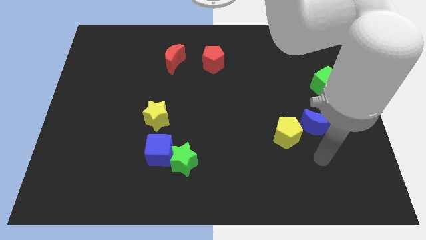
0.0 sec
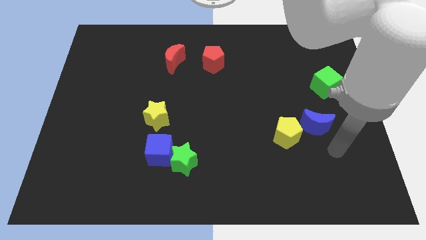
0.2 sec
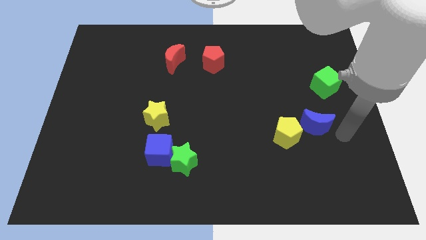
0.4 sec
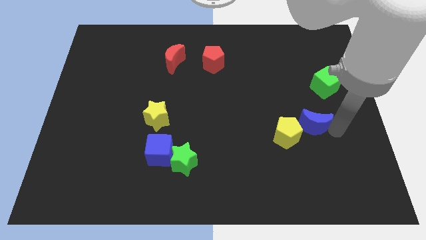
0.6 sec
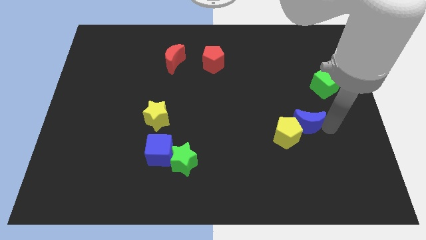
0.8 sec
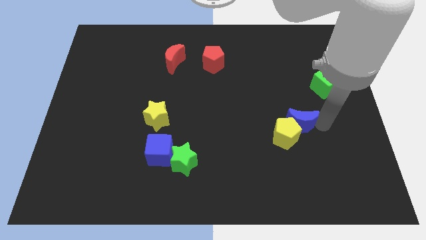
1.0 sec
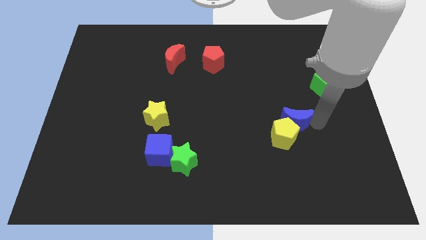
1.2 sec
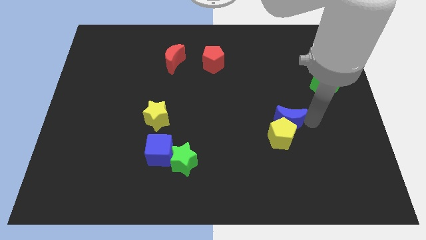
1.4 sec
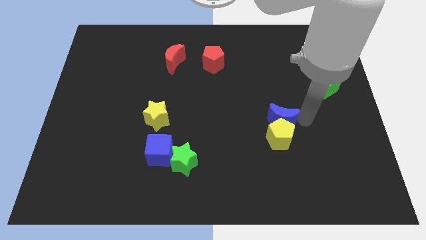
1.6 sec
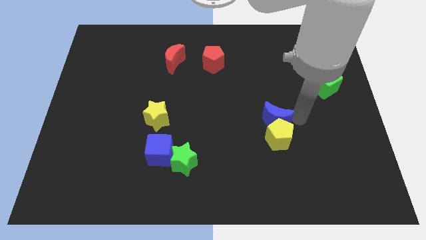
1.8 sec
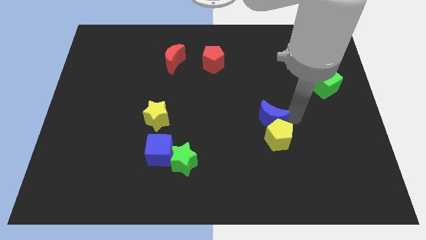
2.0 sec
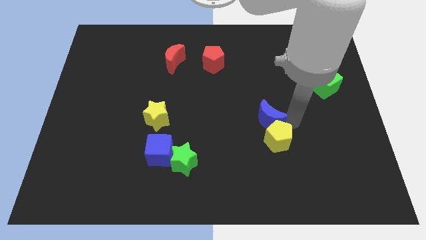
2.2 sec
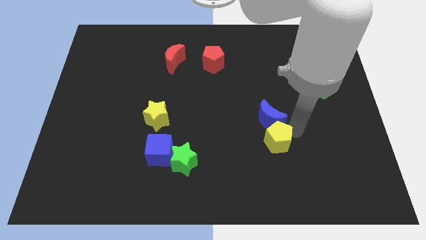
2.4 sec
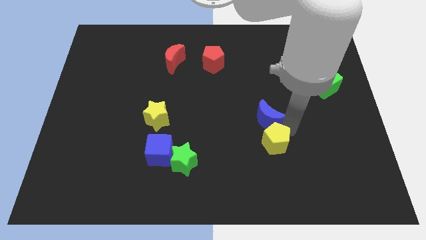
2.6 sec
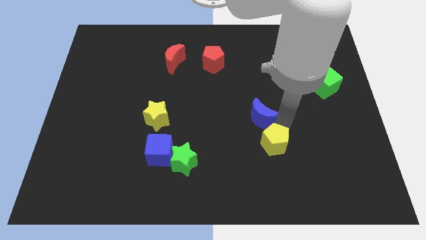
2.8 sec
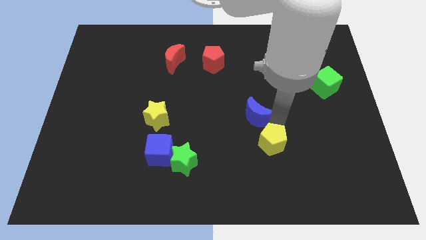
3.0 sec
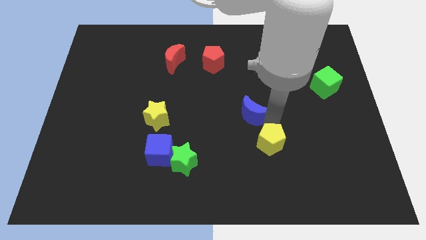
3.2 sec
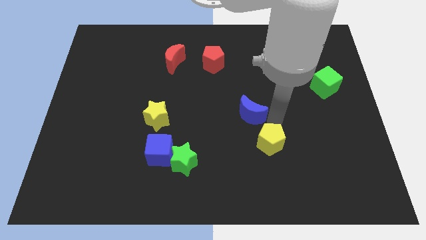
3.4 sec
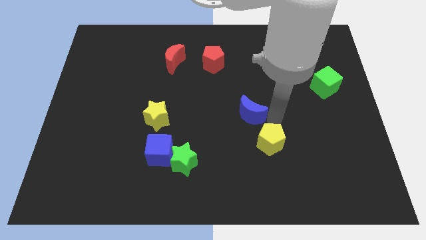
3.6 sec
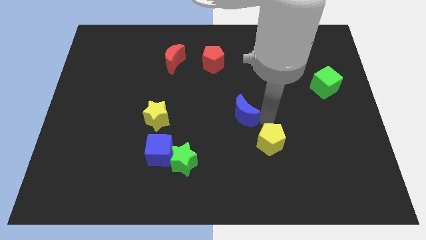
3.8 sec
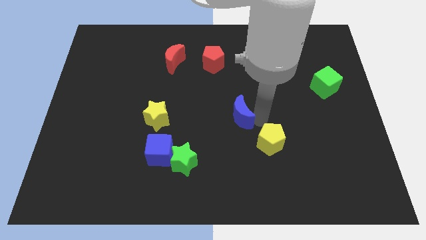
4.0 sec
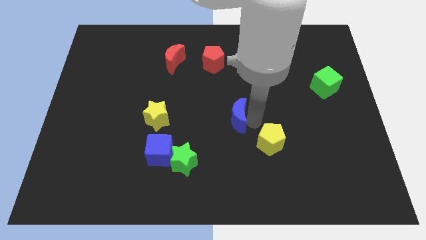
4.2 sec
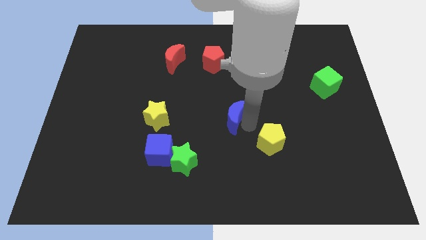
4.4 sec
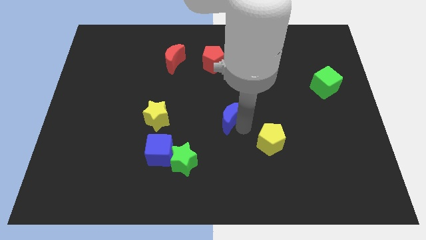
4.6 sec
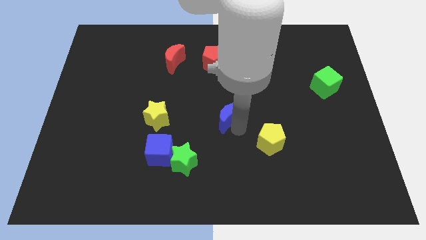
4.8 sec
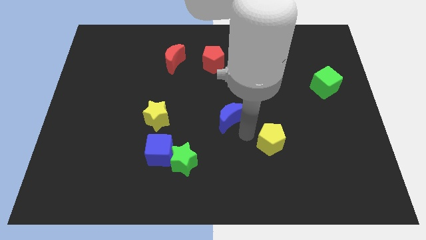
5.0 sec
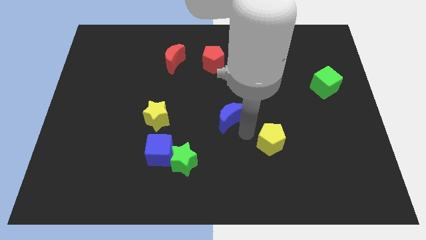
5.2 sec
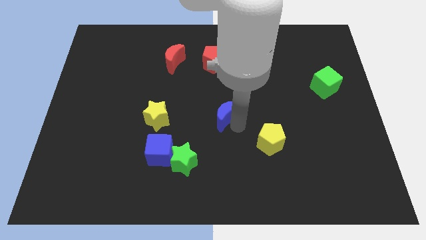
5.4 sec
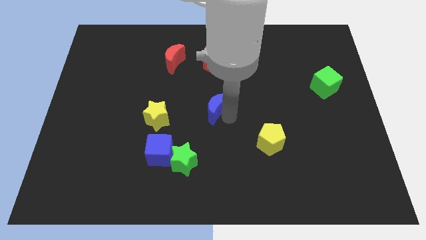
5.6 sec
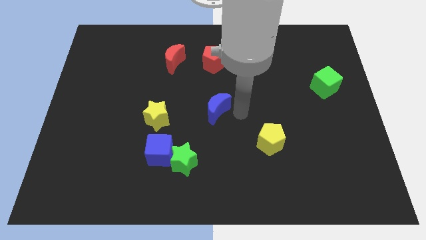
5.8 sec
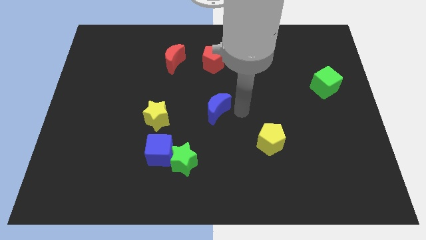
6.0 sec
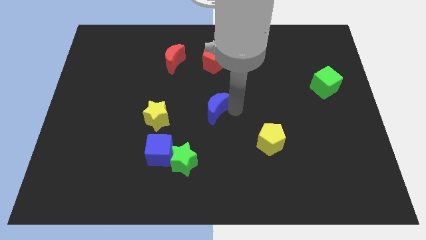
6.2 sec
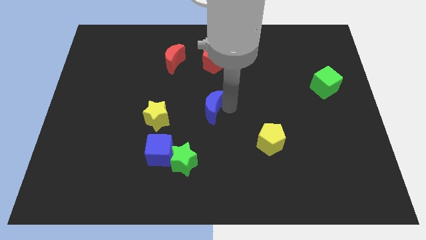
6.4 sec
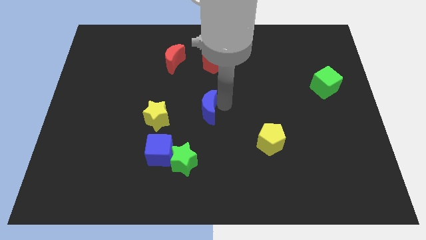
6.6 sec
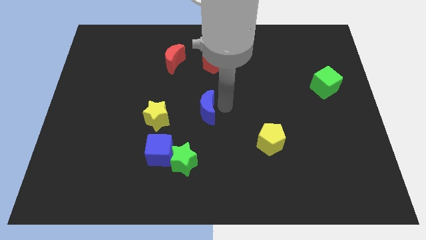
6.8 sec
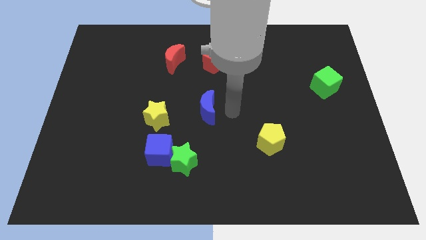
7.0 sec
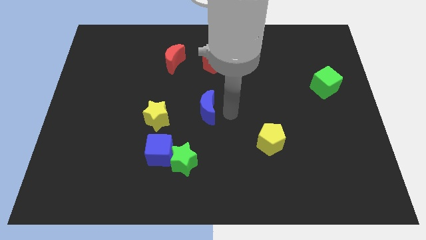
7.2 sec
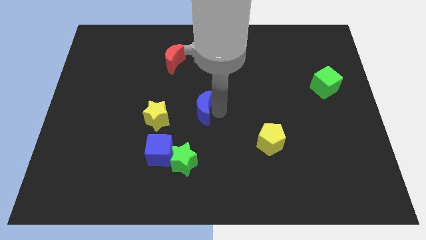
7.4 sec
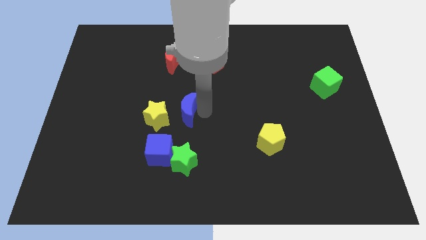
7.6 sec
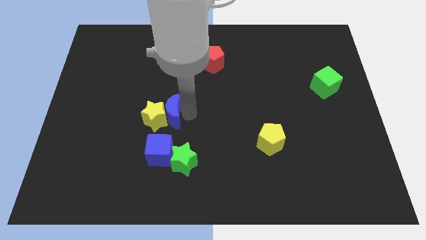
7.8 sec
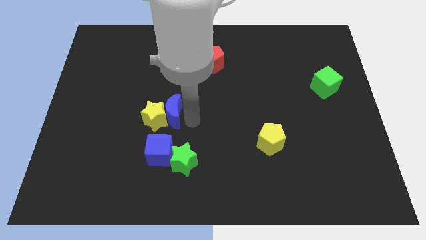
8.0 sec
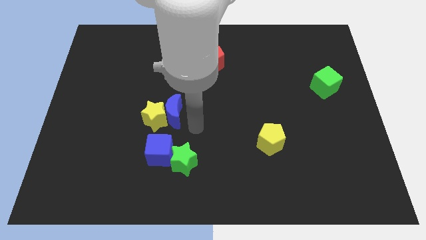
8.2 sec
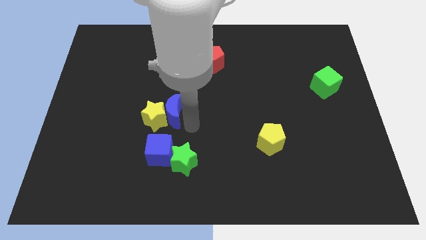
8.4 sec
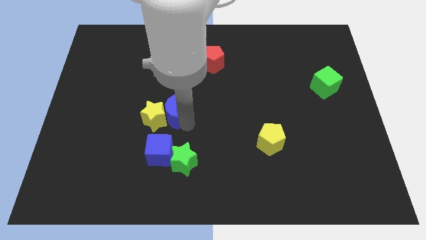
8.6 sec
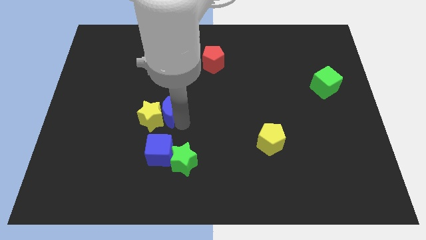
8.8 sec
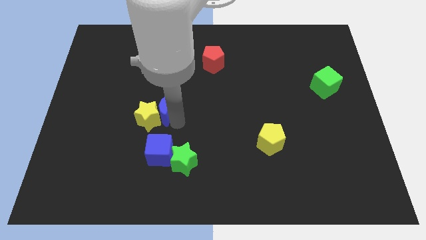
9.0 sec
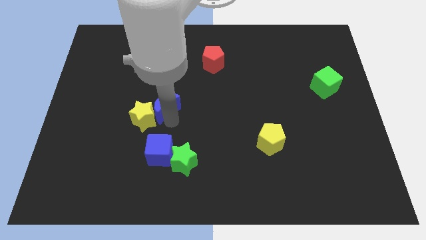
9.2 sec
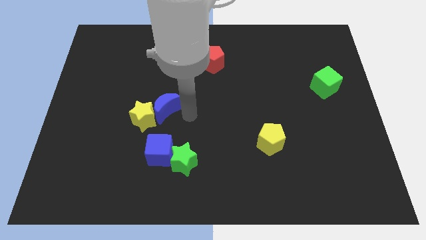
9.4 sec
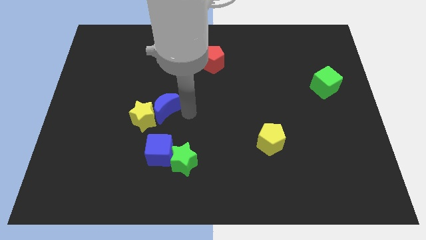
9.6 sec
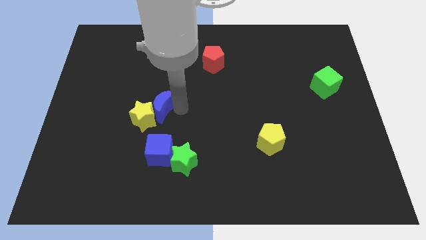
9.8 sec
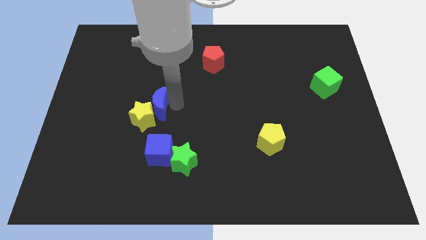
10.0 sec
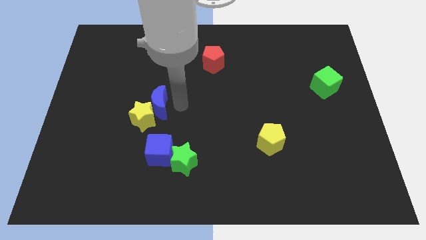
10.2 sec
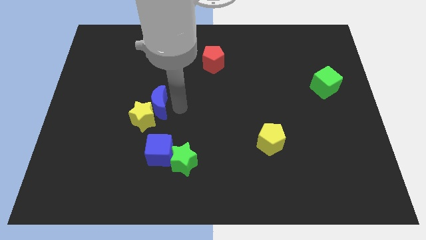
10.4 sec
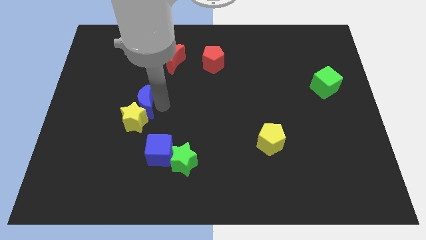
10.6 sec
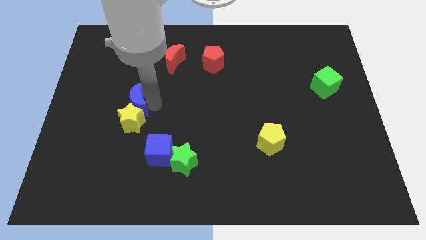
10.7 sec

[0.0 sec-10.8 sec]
move the blue moon diagonally up and to the left of the yellow star
